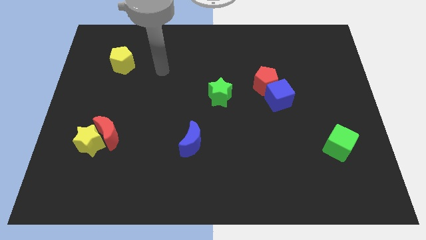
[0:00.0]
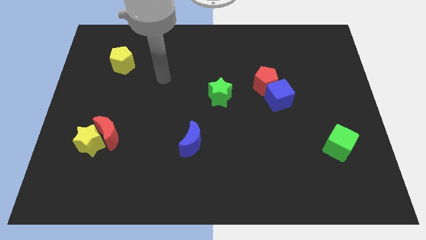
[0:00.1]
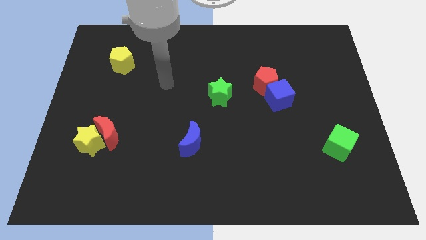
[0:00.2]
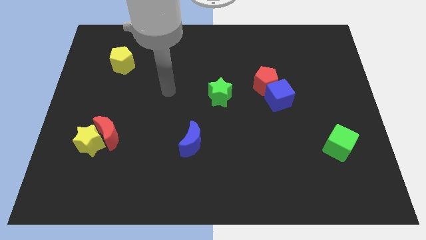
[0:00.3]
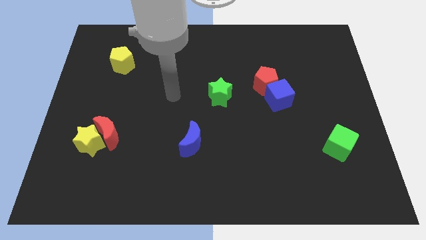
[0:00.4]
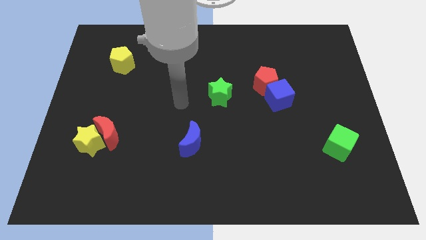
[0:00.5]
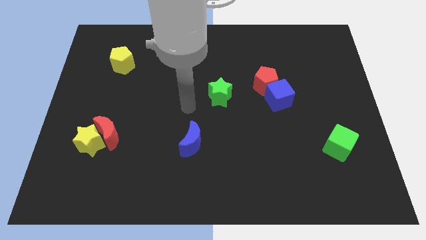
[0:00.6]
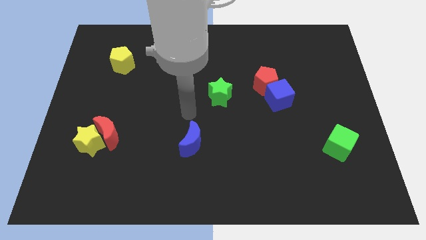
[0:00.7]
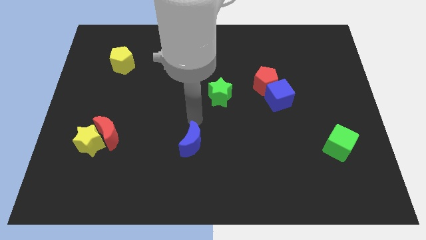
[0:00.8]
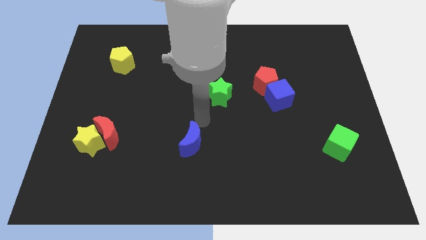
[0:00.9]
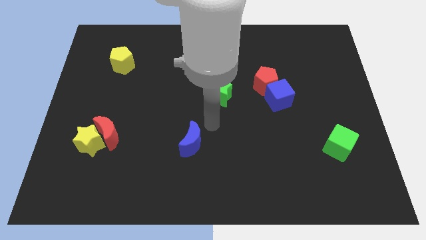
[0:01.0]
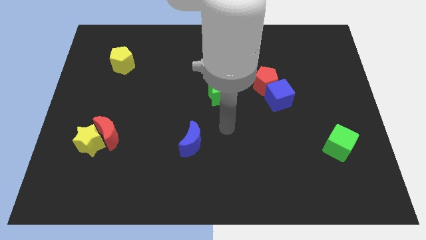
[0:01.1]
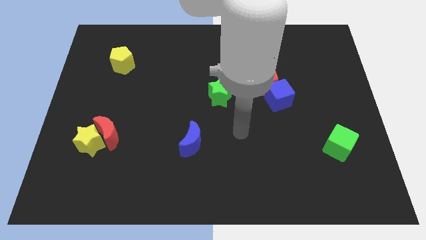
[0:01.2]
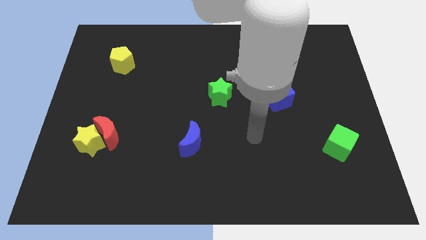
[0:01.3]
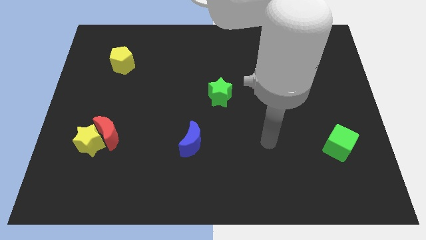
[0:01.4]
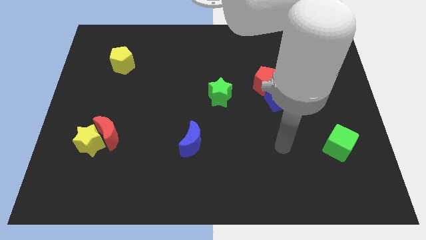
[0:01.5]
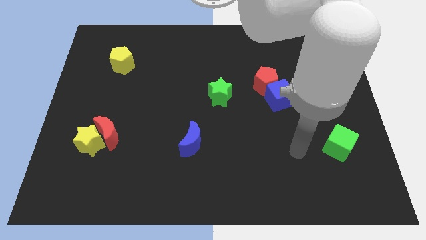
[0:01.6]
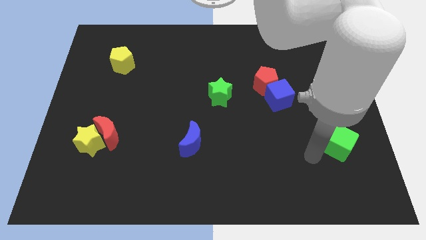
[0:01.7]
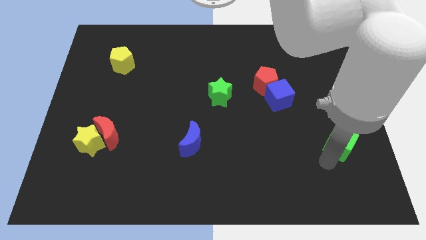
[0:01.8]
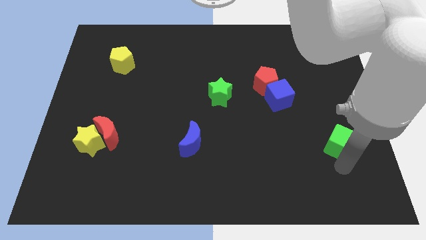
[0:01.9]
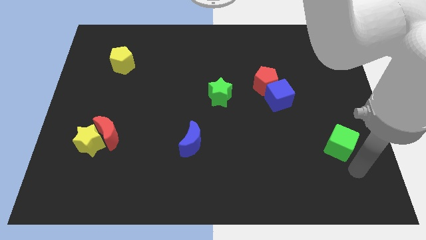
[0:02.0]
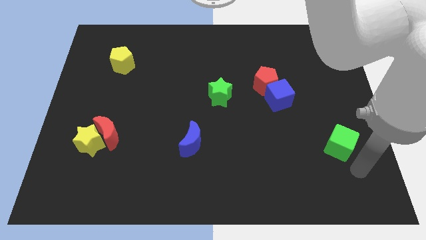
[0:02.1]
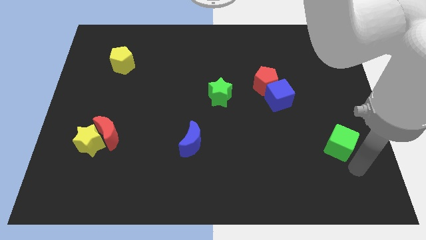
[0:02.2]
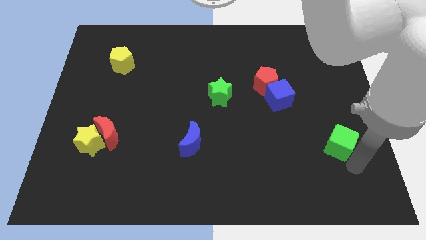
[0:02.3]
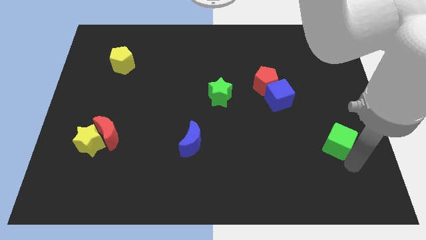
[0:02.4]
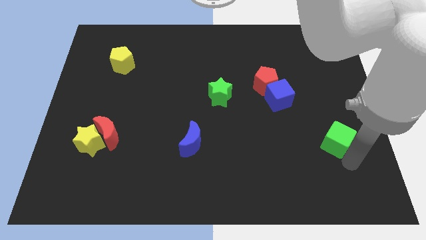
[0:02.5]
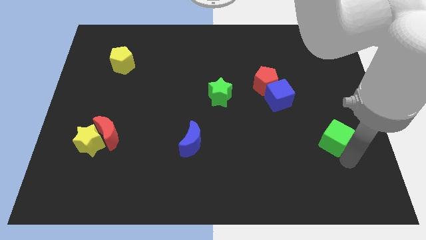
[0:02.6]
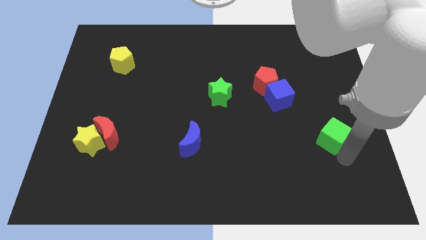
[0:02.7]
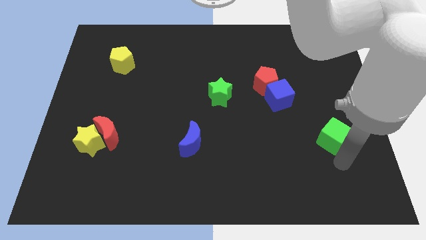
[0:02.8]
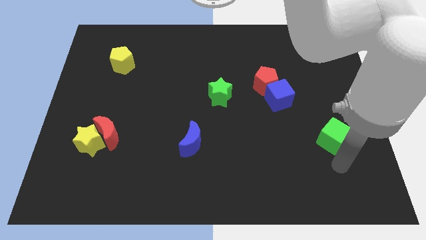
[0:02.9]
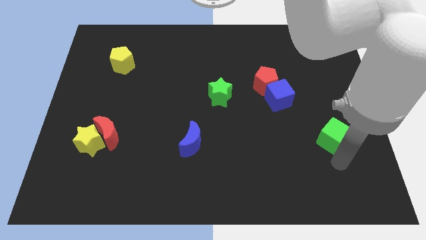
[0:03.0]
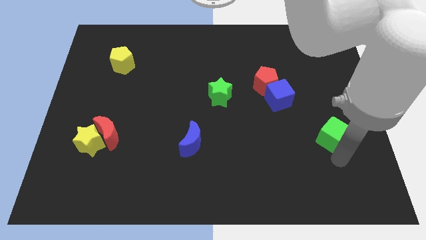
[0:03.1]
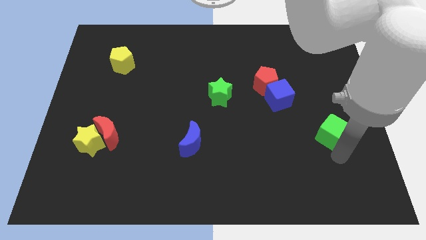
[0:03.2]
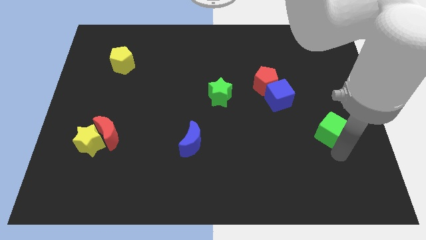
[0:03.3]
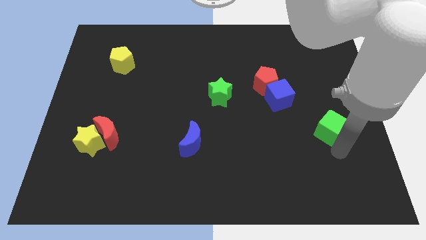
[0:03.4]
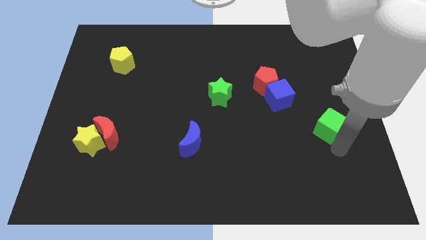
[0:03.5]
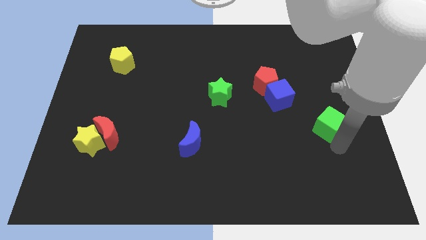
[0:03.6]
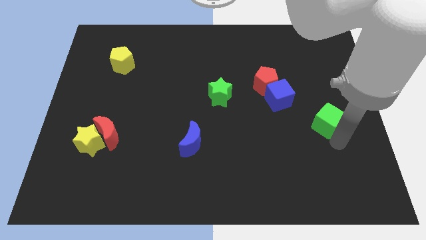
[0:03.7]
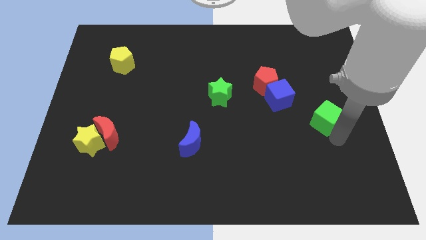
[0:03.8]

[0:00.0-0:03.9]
slide the green cube up somewhat

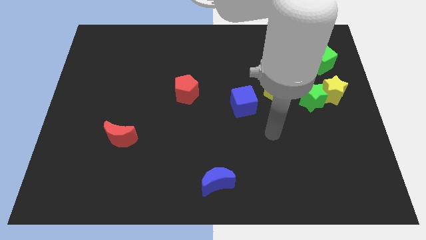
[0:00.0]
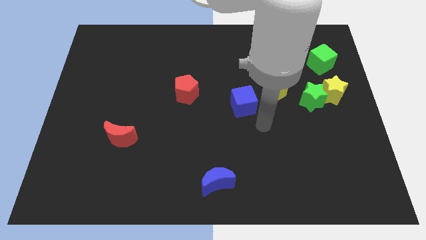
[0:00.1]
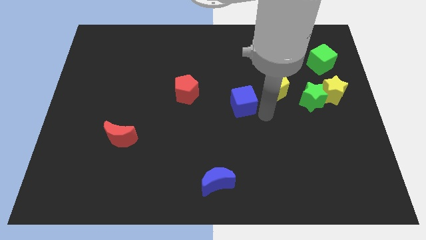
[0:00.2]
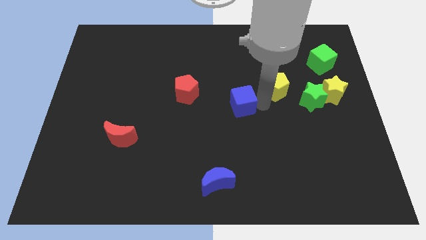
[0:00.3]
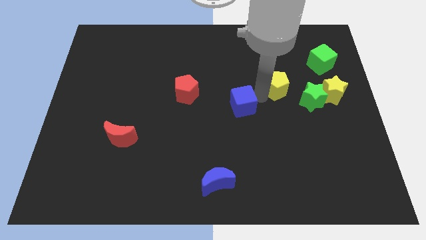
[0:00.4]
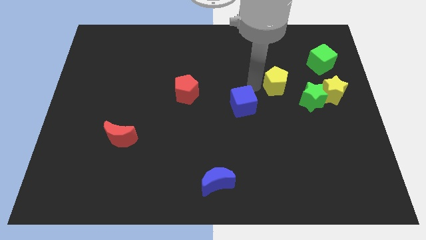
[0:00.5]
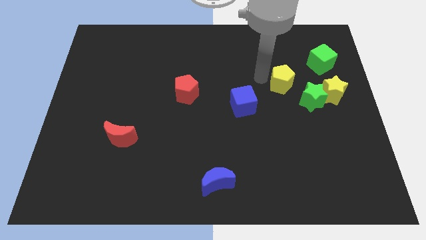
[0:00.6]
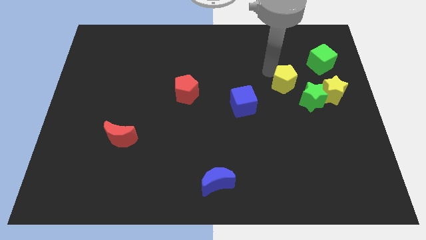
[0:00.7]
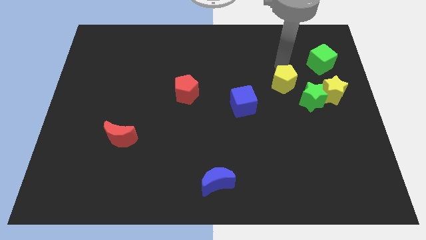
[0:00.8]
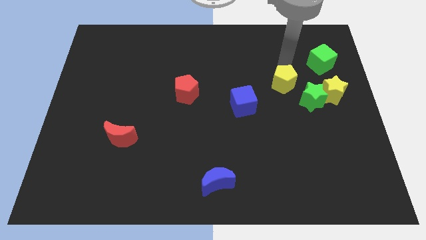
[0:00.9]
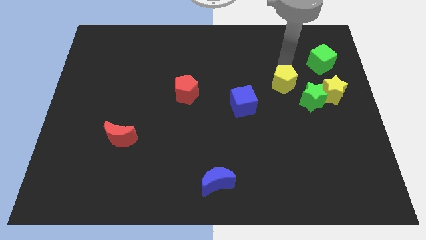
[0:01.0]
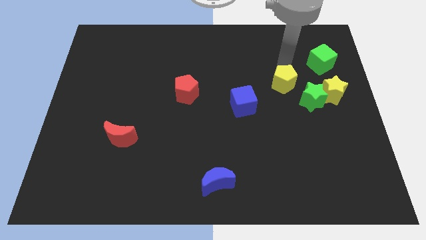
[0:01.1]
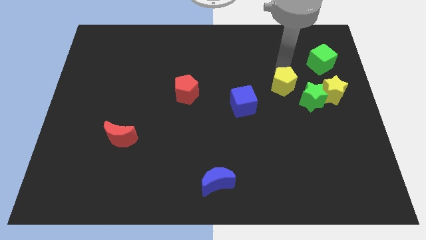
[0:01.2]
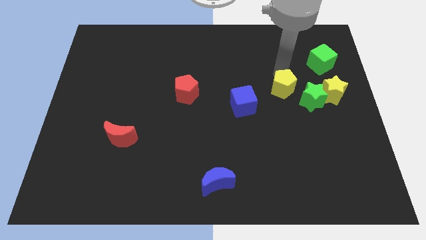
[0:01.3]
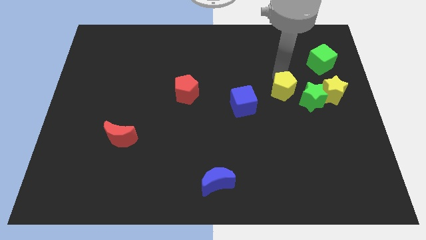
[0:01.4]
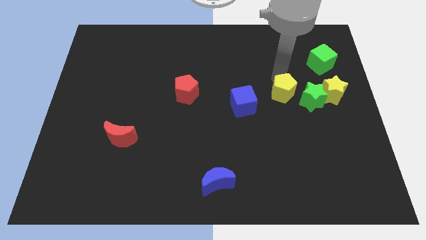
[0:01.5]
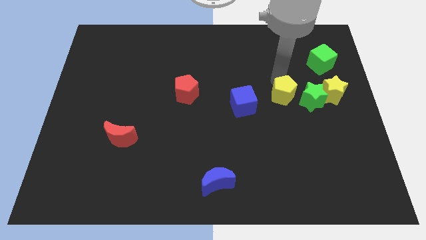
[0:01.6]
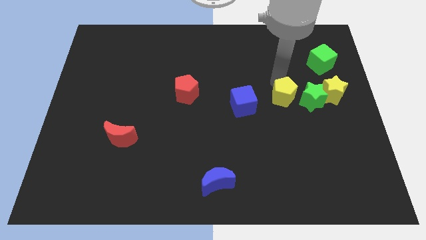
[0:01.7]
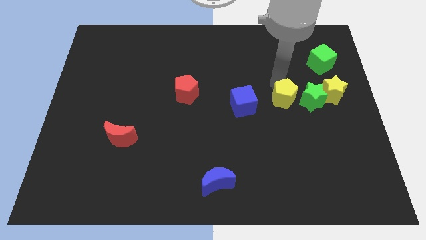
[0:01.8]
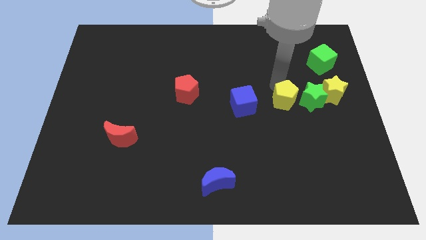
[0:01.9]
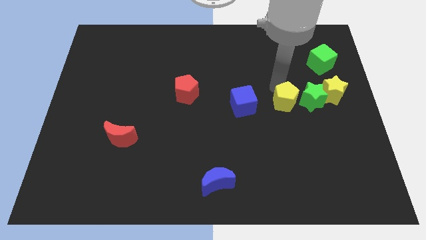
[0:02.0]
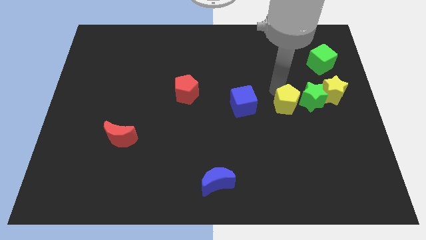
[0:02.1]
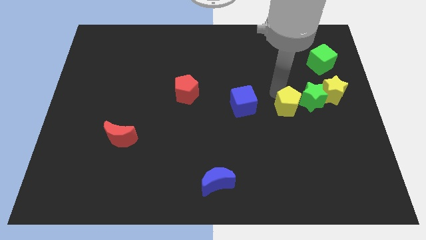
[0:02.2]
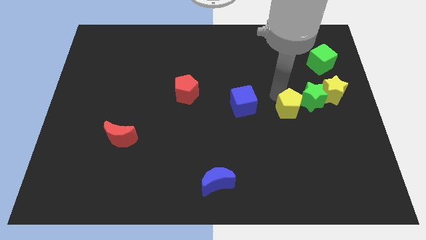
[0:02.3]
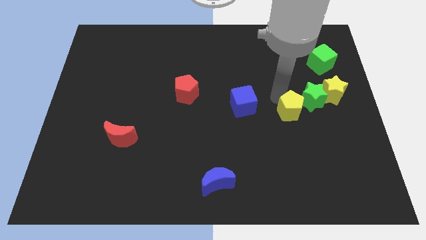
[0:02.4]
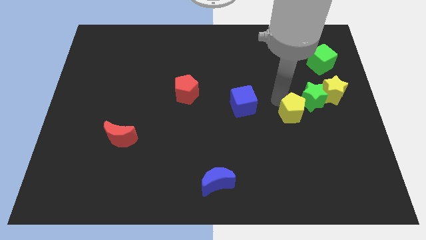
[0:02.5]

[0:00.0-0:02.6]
move the yellow pentagon a little bit down

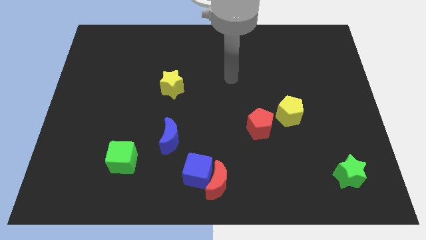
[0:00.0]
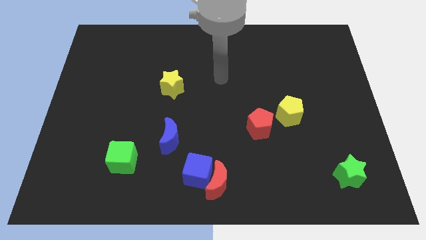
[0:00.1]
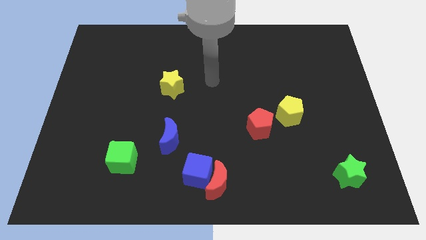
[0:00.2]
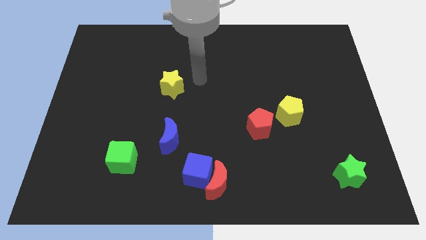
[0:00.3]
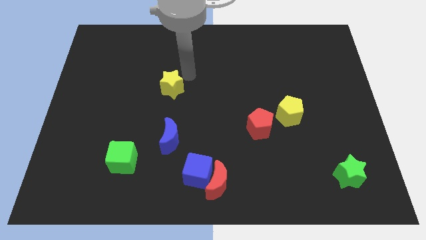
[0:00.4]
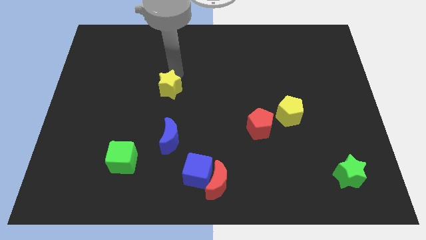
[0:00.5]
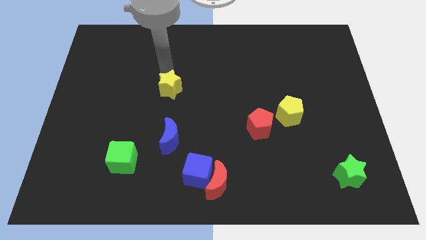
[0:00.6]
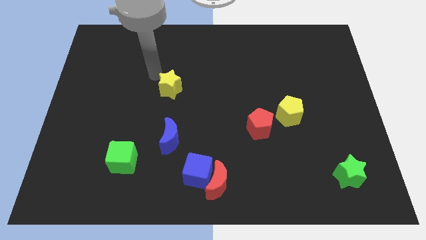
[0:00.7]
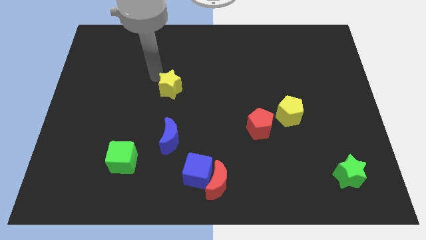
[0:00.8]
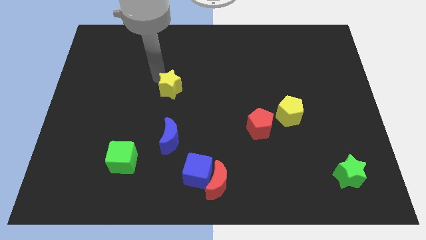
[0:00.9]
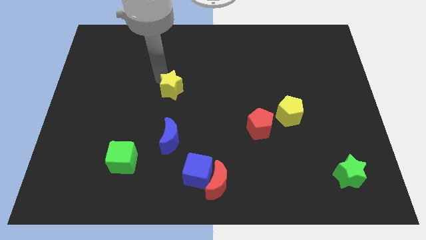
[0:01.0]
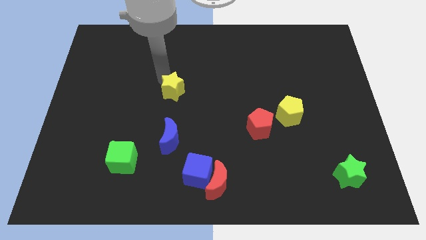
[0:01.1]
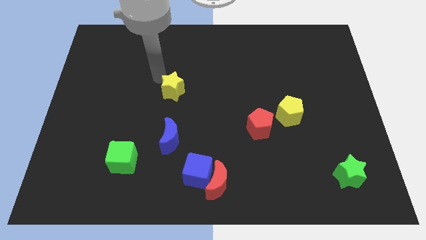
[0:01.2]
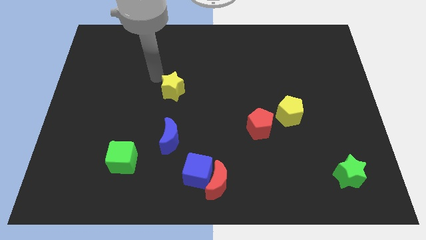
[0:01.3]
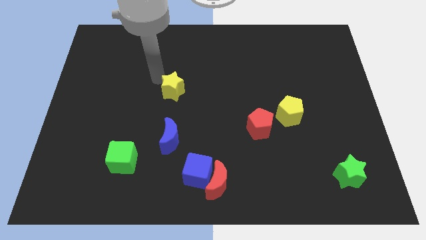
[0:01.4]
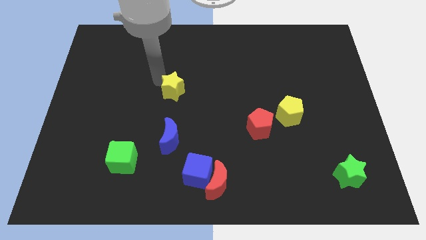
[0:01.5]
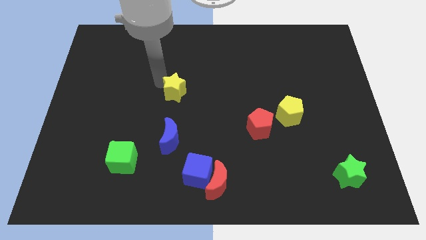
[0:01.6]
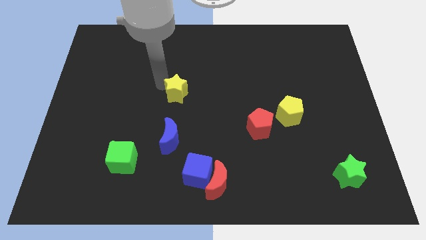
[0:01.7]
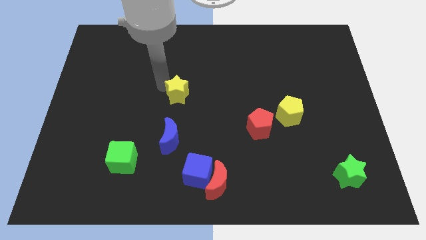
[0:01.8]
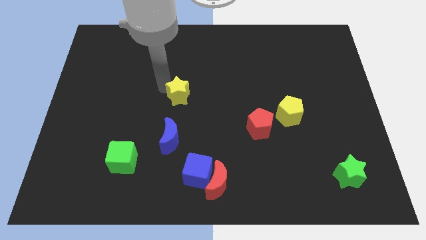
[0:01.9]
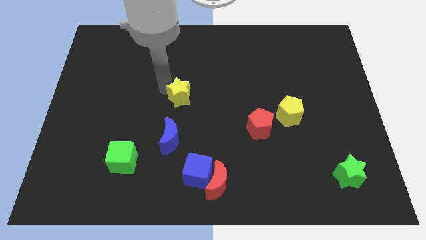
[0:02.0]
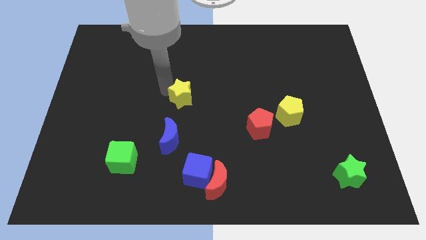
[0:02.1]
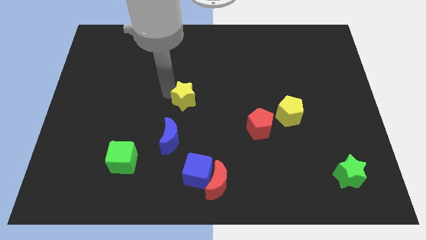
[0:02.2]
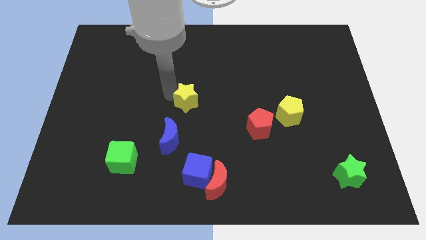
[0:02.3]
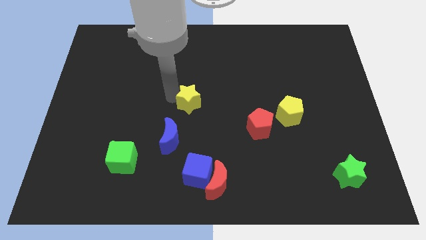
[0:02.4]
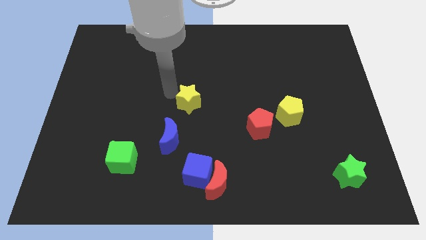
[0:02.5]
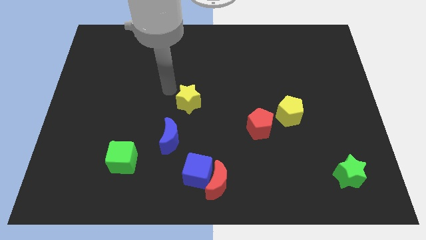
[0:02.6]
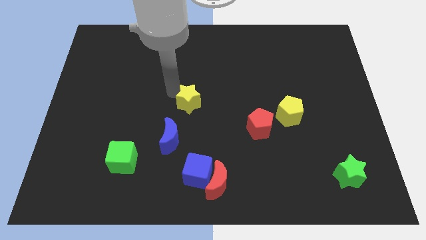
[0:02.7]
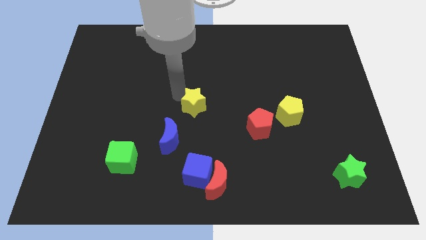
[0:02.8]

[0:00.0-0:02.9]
move the yellow star diagonally downwards and right slightly
